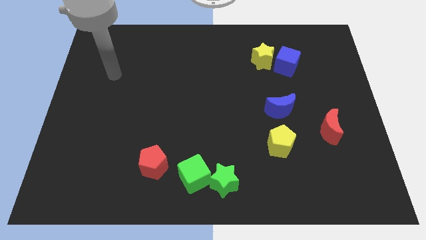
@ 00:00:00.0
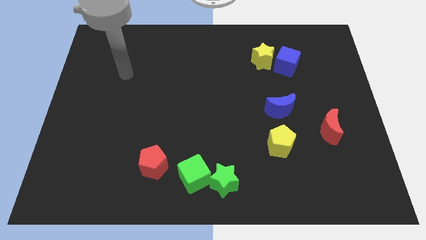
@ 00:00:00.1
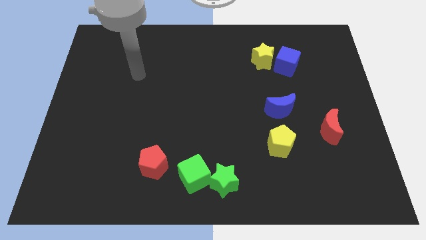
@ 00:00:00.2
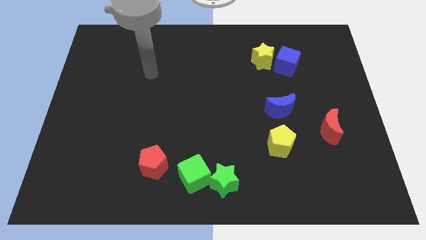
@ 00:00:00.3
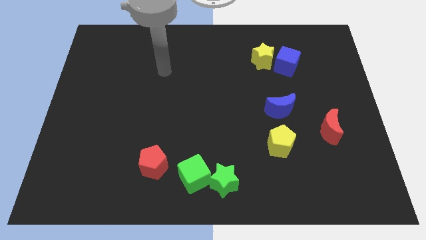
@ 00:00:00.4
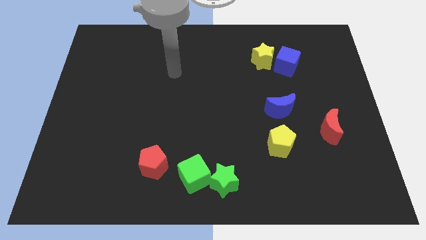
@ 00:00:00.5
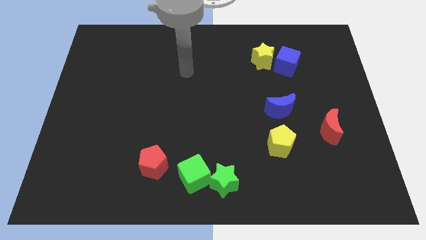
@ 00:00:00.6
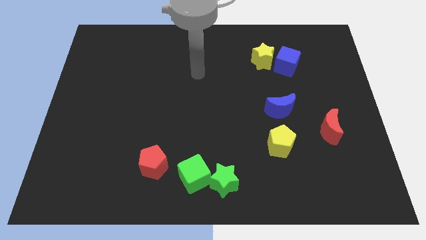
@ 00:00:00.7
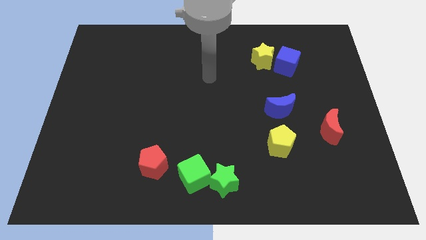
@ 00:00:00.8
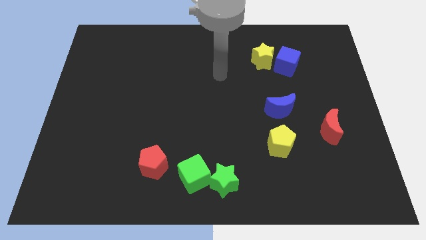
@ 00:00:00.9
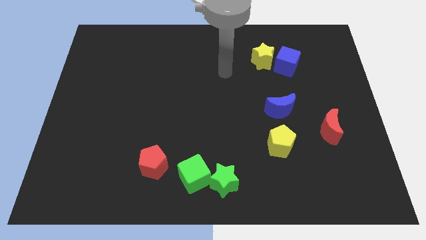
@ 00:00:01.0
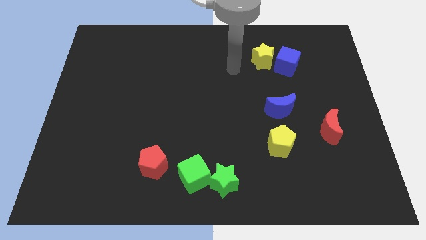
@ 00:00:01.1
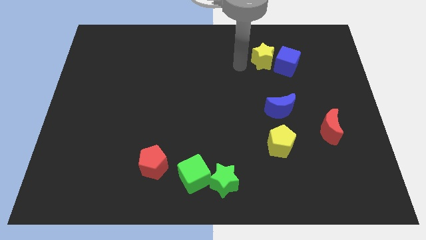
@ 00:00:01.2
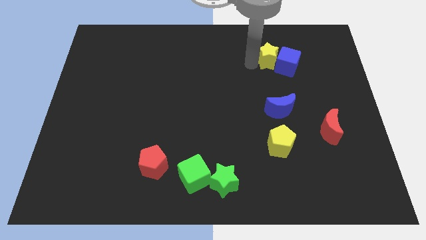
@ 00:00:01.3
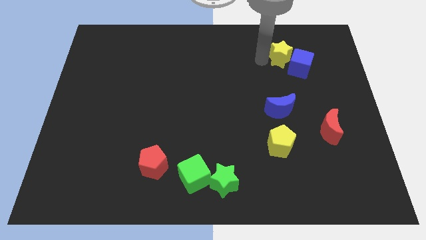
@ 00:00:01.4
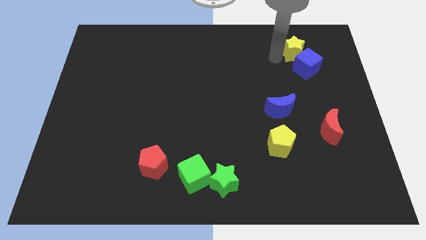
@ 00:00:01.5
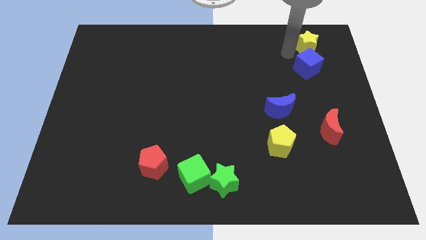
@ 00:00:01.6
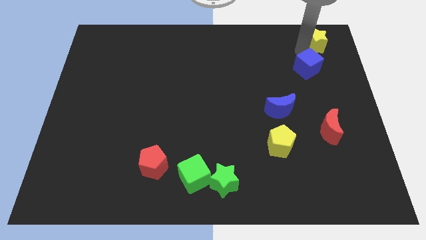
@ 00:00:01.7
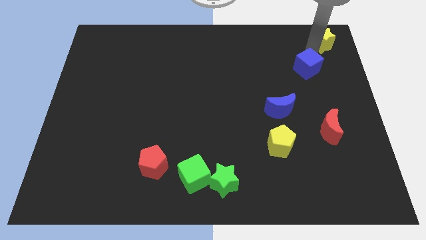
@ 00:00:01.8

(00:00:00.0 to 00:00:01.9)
pull the blue cube apart from the yellow star

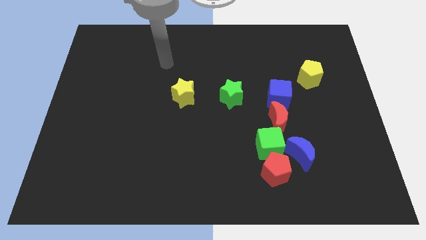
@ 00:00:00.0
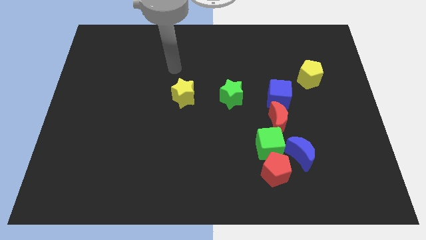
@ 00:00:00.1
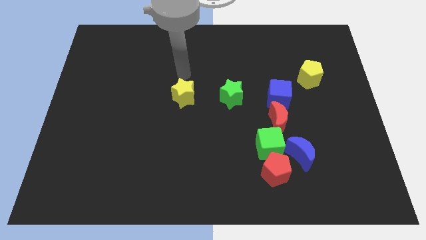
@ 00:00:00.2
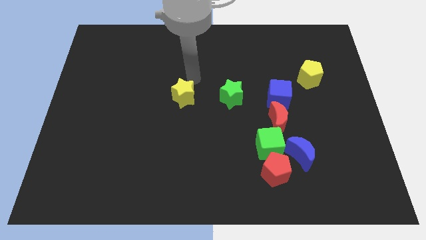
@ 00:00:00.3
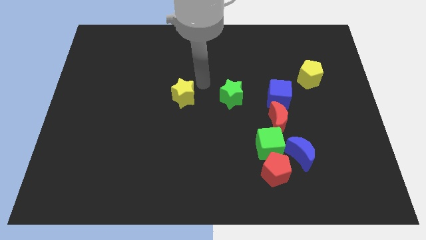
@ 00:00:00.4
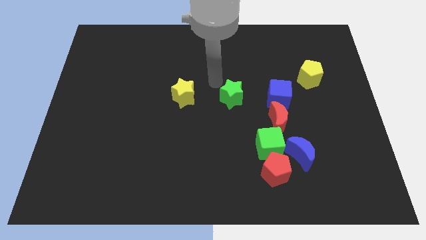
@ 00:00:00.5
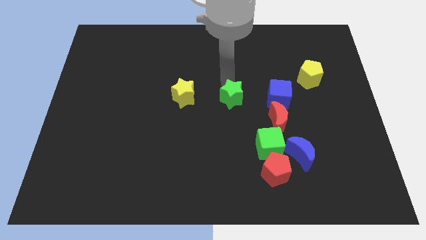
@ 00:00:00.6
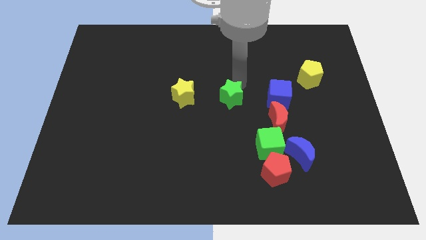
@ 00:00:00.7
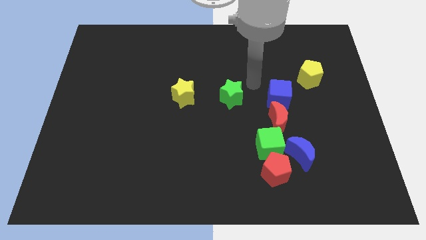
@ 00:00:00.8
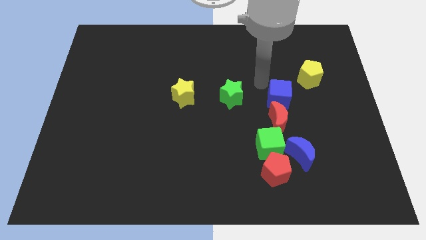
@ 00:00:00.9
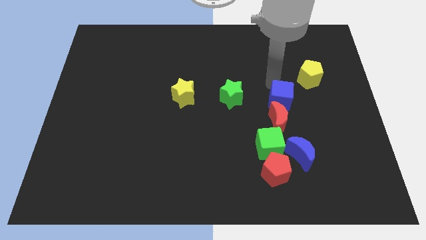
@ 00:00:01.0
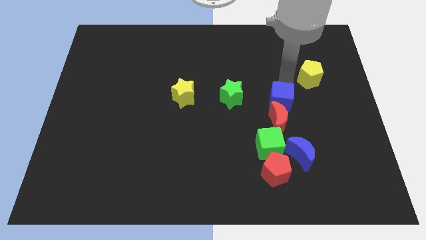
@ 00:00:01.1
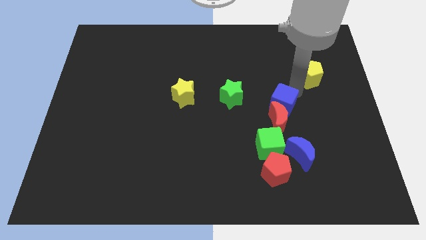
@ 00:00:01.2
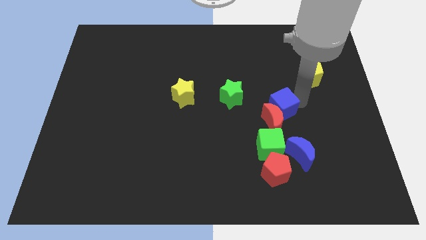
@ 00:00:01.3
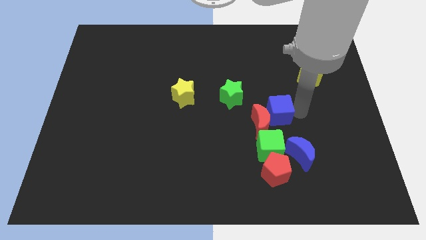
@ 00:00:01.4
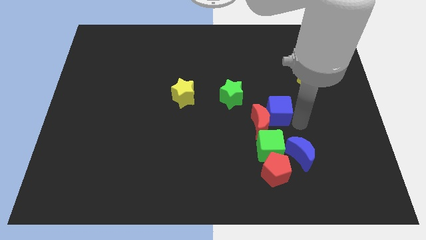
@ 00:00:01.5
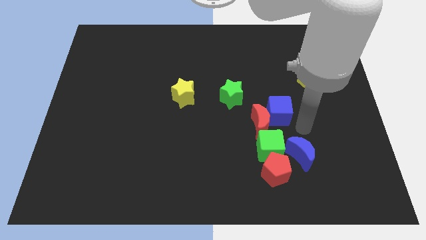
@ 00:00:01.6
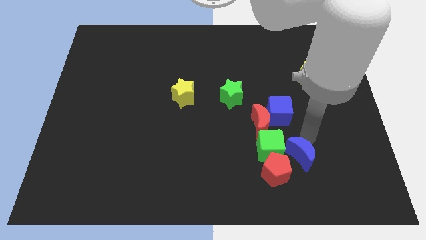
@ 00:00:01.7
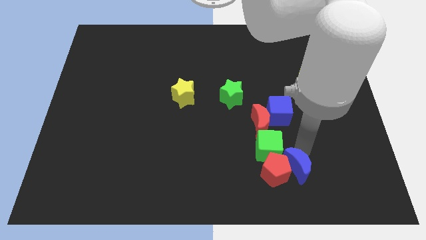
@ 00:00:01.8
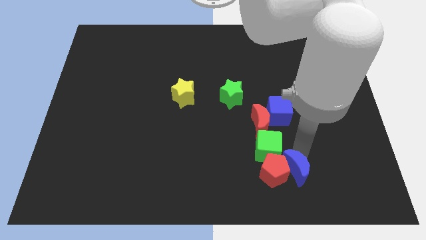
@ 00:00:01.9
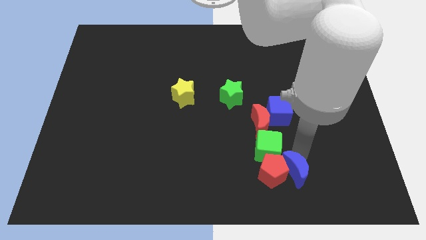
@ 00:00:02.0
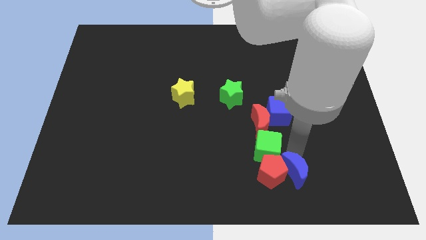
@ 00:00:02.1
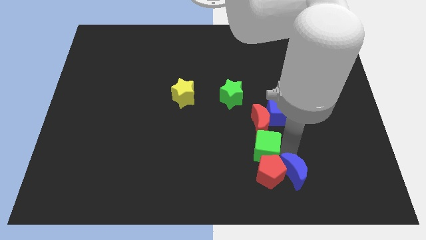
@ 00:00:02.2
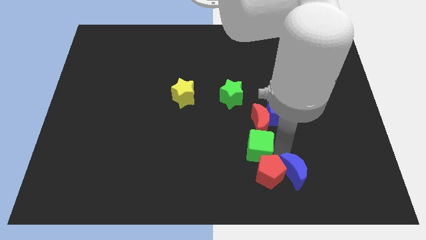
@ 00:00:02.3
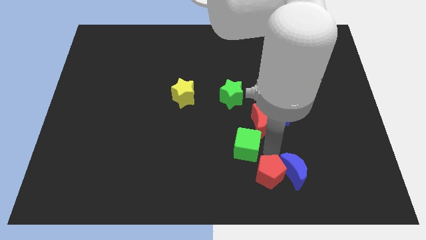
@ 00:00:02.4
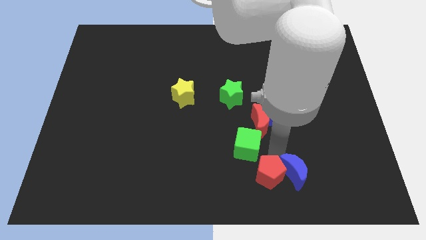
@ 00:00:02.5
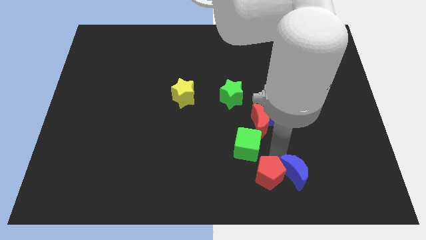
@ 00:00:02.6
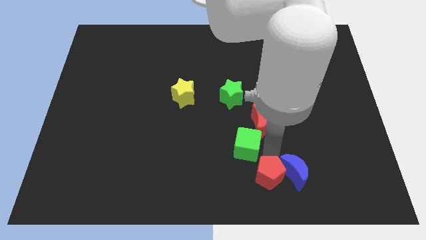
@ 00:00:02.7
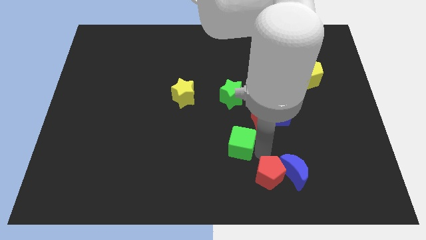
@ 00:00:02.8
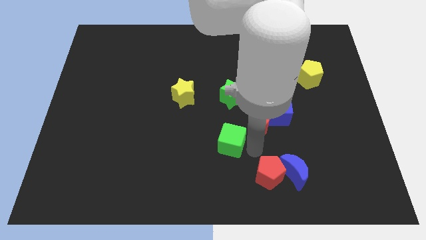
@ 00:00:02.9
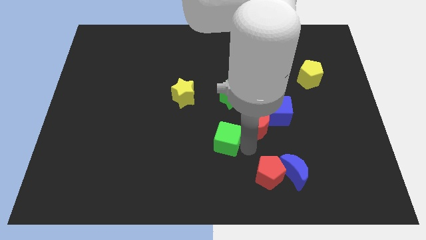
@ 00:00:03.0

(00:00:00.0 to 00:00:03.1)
separate the green cube from the red pentagon, blue moon, and red moon

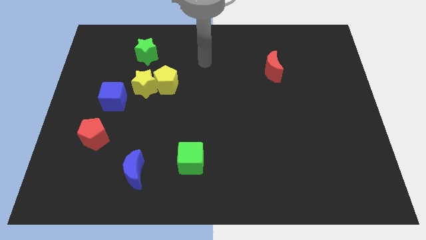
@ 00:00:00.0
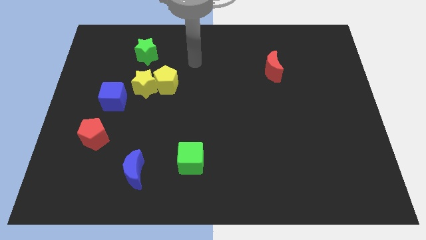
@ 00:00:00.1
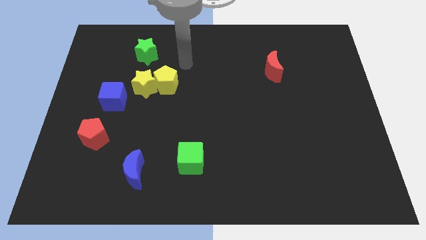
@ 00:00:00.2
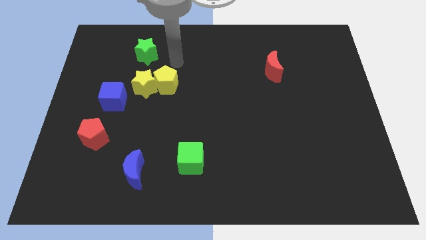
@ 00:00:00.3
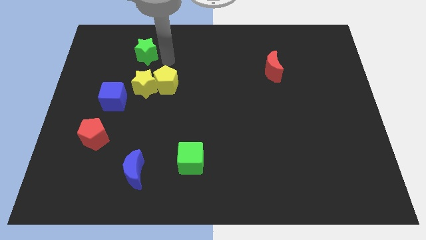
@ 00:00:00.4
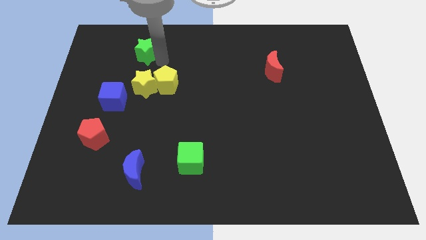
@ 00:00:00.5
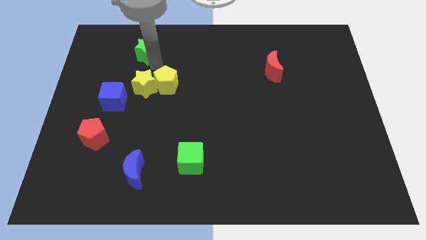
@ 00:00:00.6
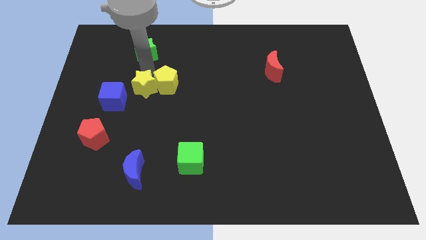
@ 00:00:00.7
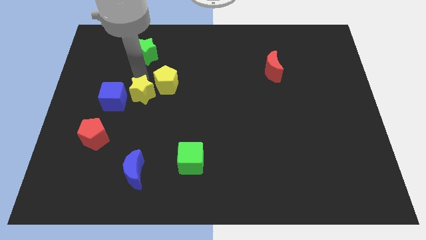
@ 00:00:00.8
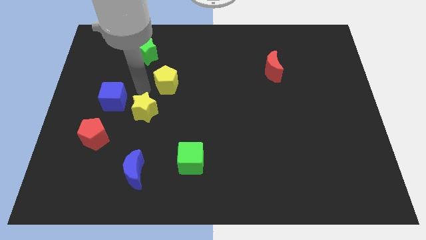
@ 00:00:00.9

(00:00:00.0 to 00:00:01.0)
separate the yellow pentagon from the yellow star

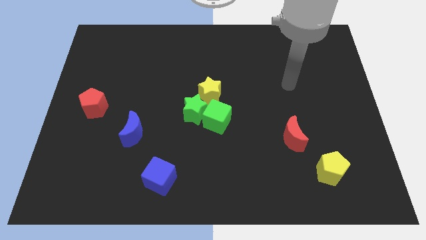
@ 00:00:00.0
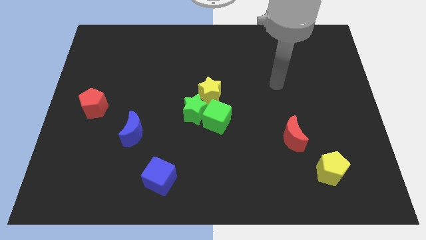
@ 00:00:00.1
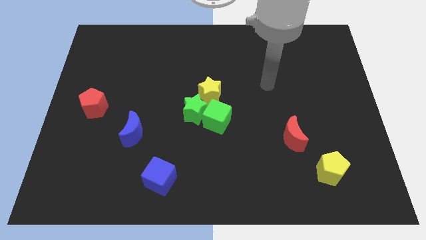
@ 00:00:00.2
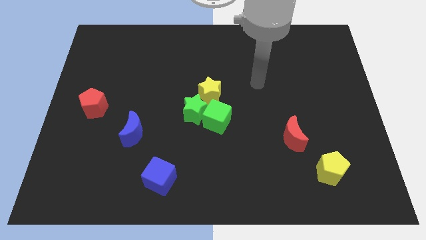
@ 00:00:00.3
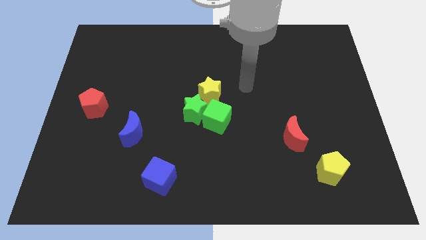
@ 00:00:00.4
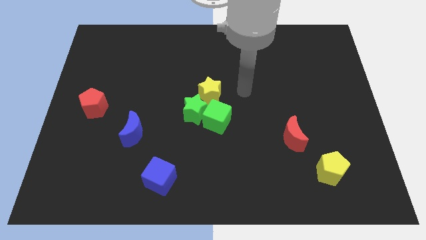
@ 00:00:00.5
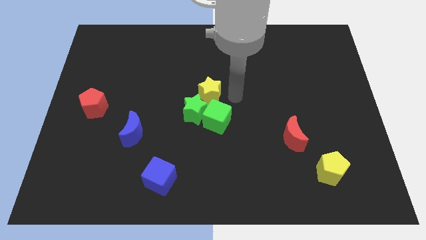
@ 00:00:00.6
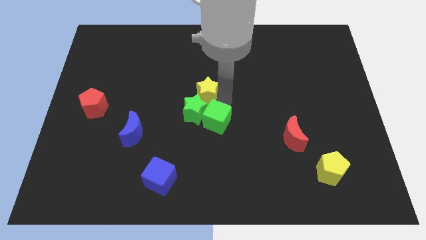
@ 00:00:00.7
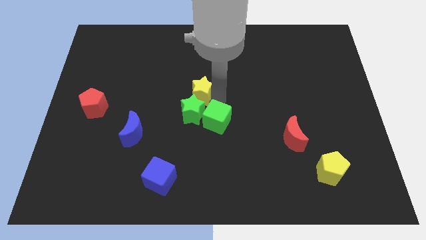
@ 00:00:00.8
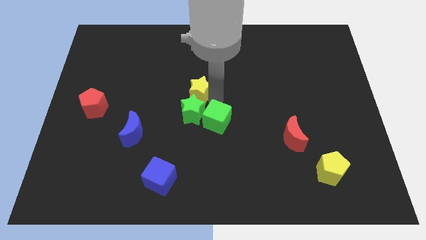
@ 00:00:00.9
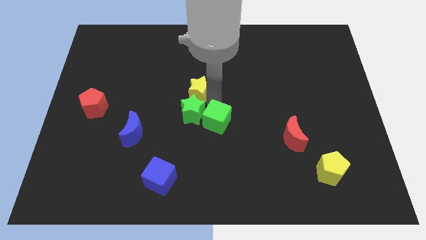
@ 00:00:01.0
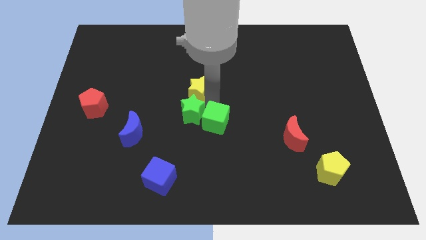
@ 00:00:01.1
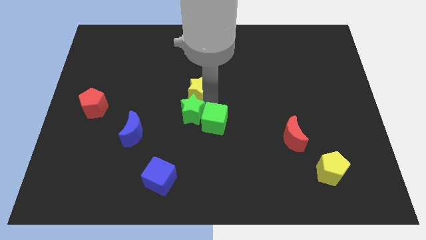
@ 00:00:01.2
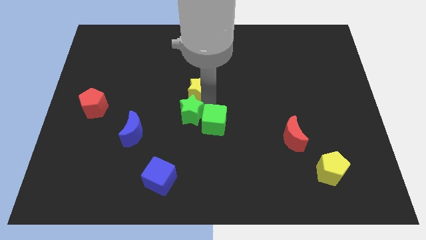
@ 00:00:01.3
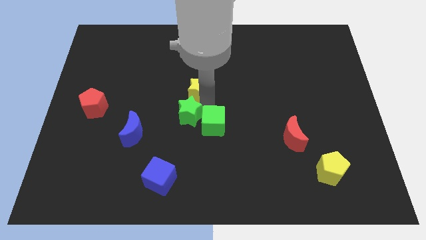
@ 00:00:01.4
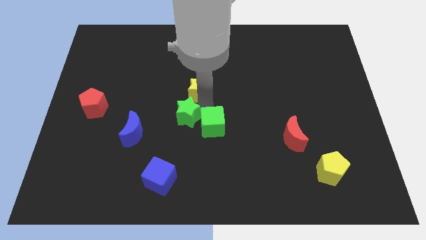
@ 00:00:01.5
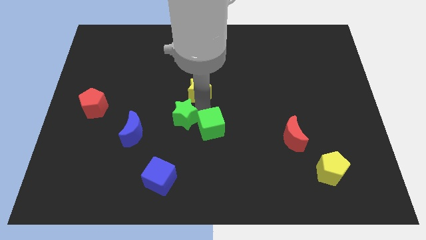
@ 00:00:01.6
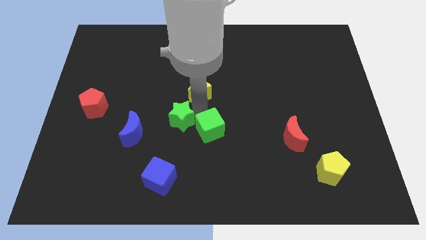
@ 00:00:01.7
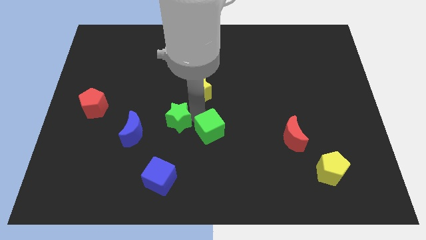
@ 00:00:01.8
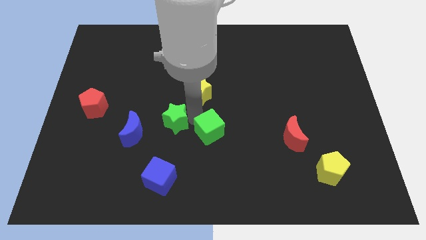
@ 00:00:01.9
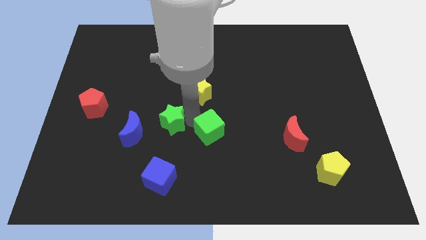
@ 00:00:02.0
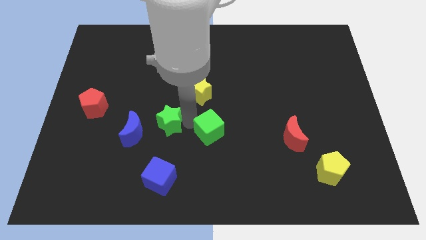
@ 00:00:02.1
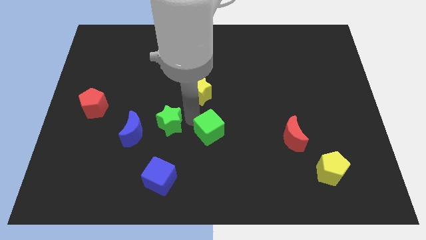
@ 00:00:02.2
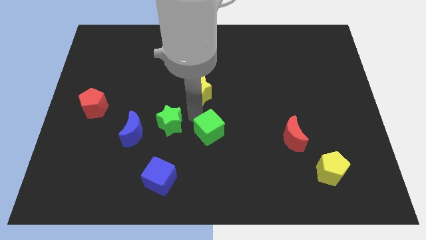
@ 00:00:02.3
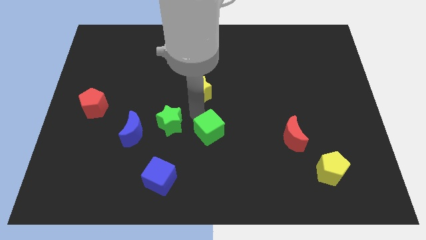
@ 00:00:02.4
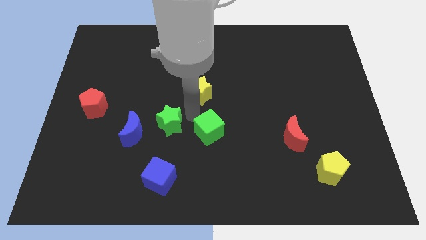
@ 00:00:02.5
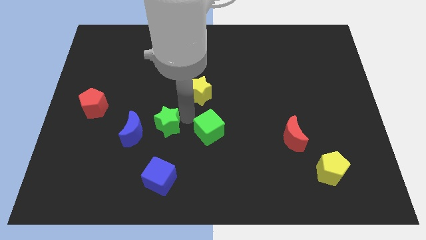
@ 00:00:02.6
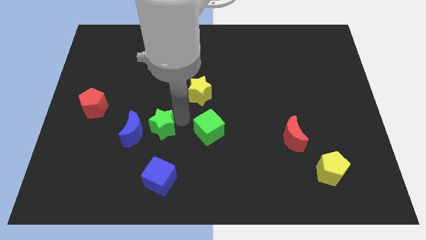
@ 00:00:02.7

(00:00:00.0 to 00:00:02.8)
separate the green star from the green cube and yellow star

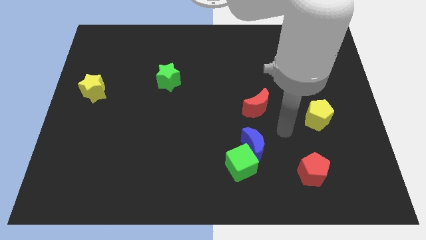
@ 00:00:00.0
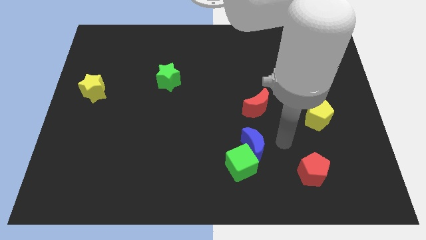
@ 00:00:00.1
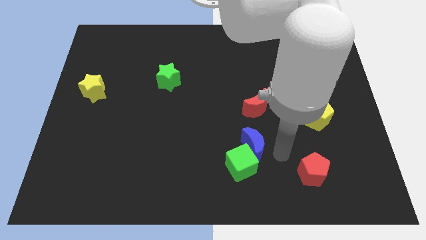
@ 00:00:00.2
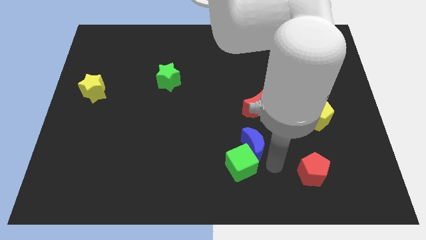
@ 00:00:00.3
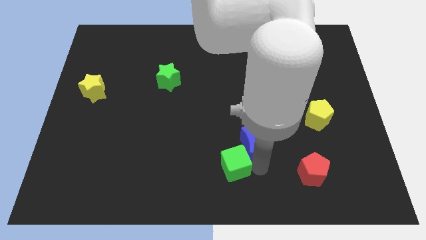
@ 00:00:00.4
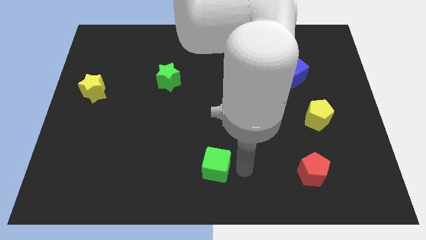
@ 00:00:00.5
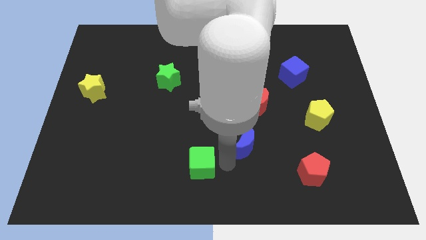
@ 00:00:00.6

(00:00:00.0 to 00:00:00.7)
move the blue moon away from the green cube
